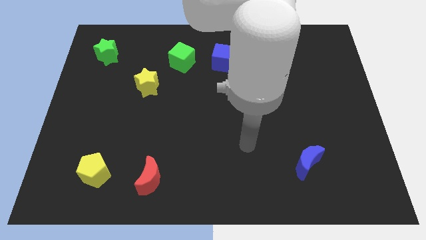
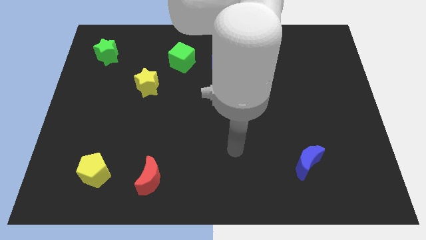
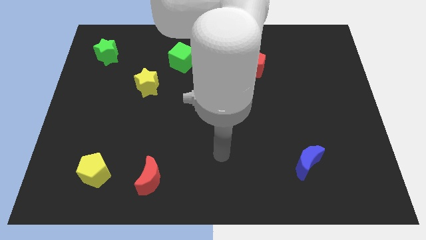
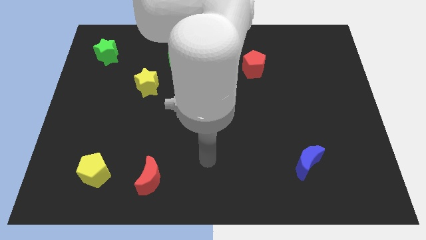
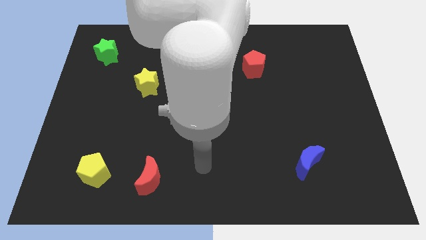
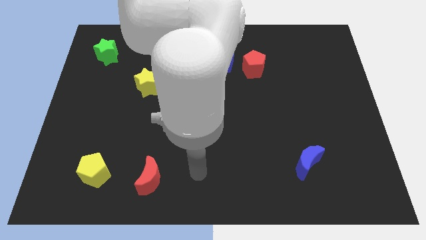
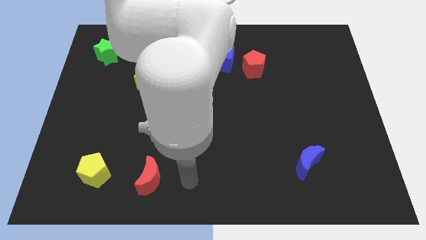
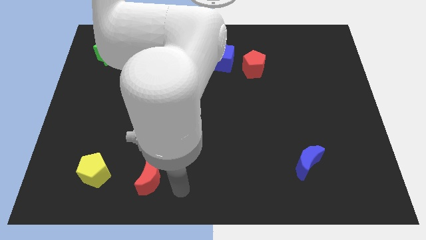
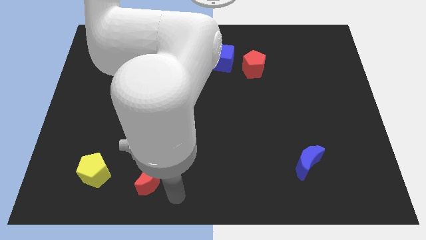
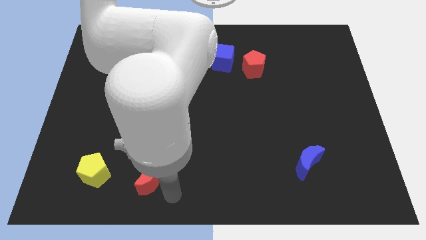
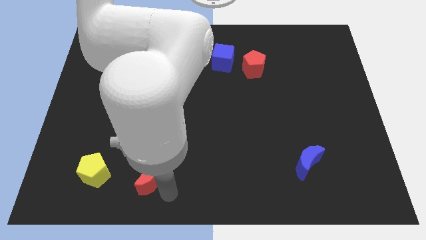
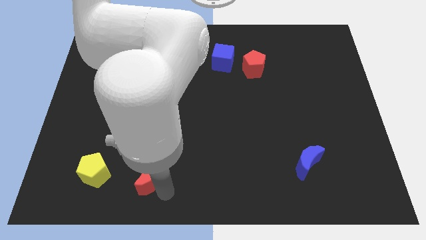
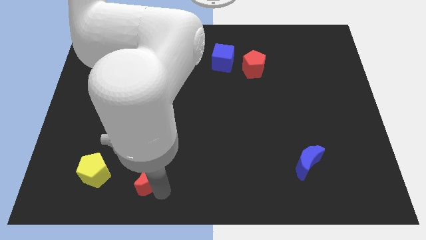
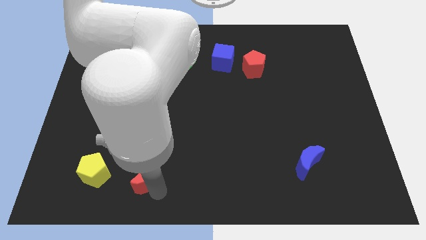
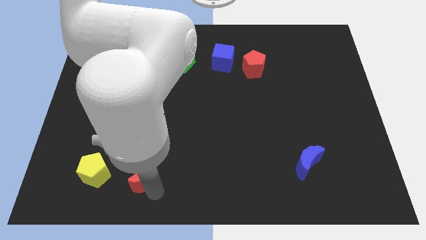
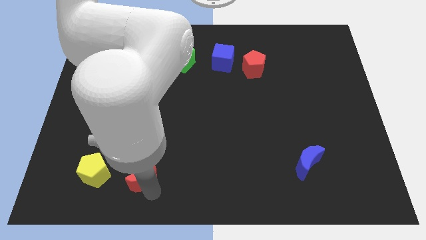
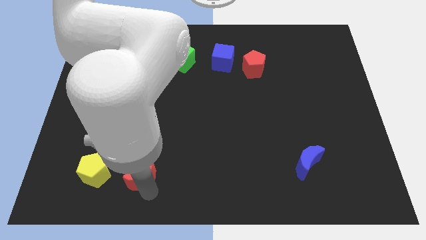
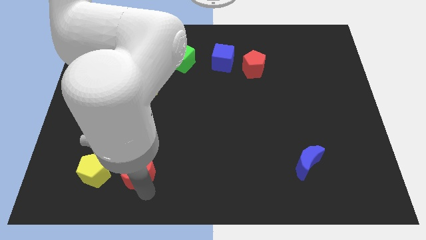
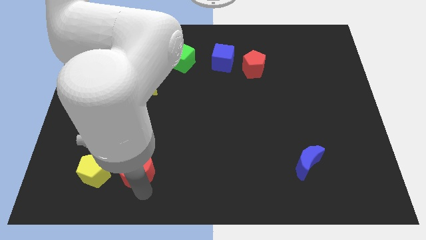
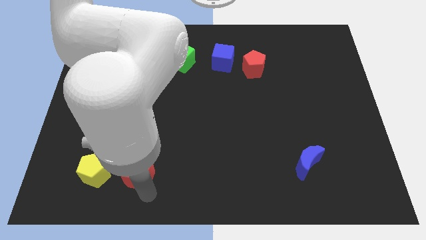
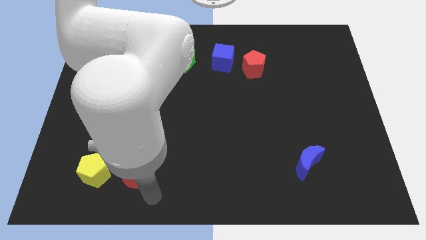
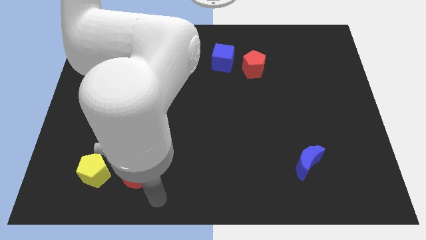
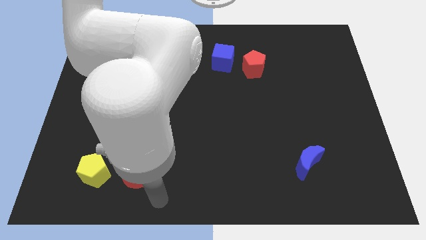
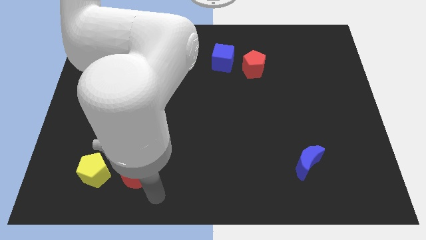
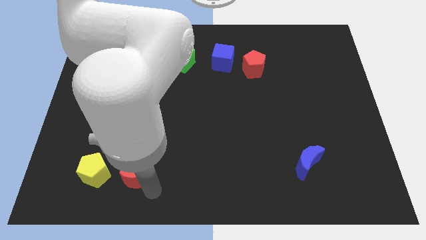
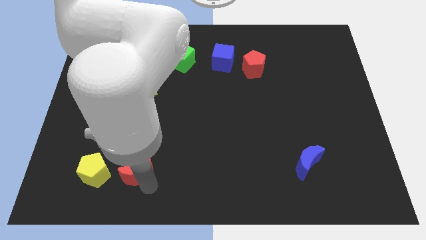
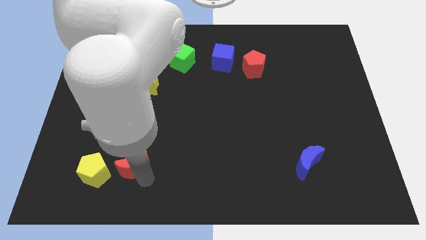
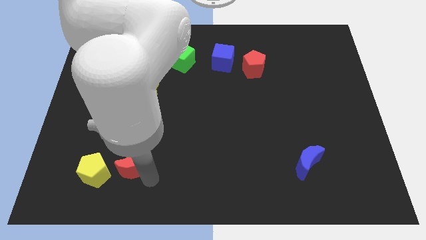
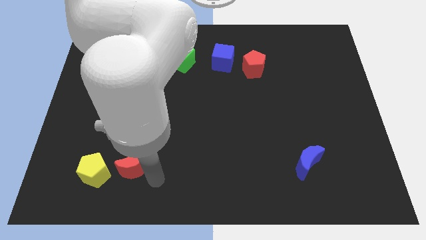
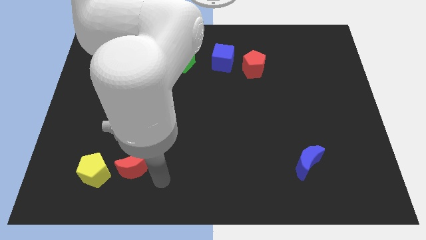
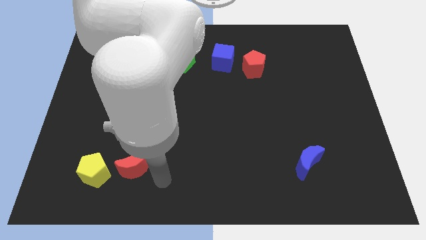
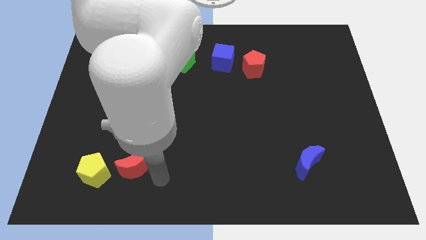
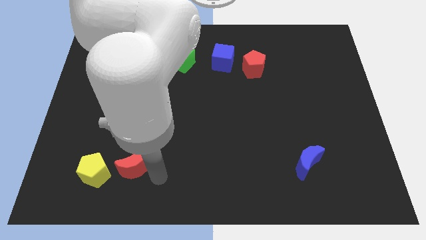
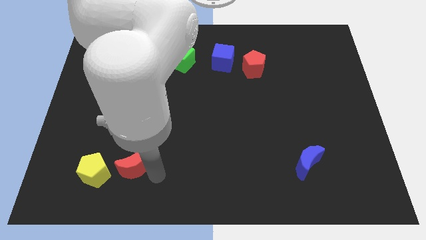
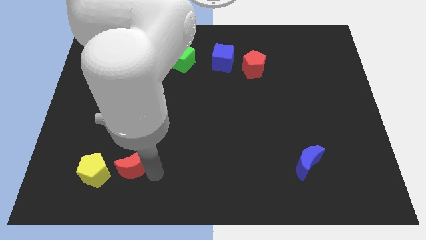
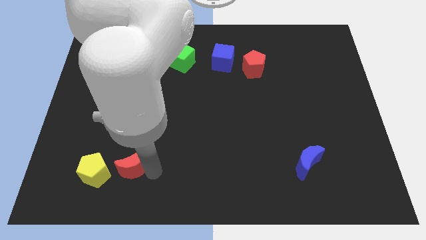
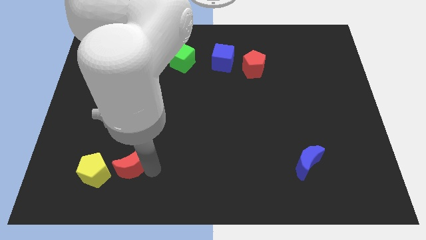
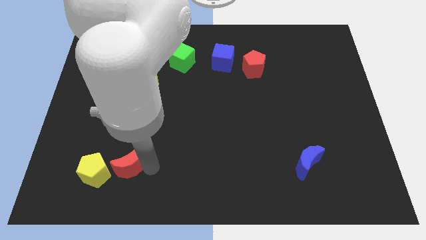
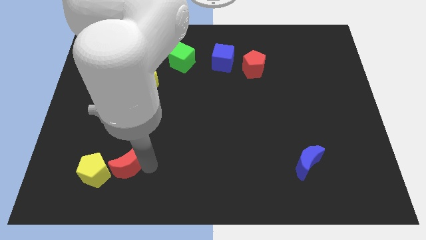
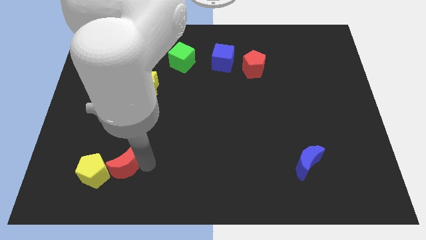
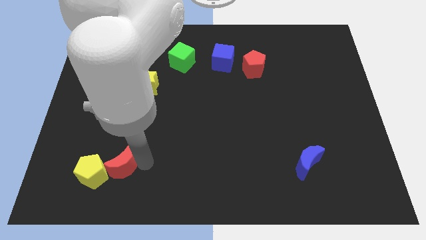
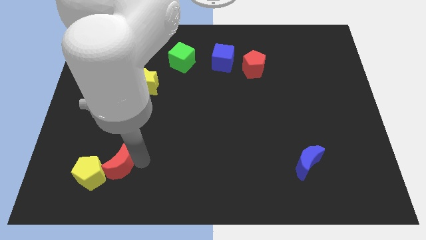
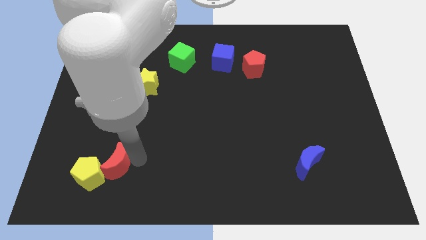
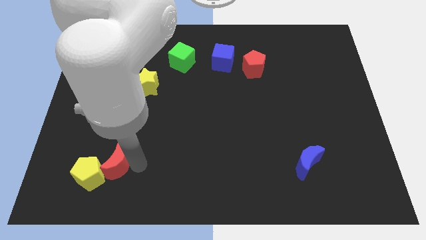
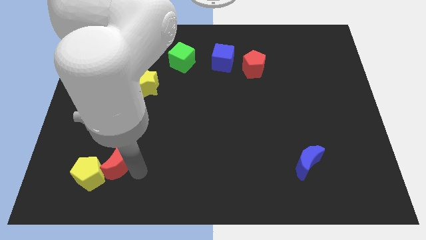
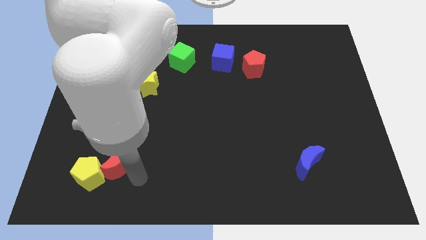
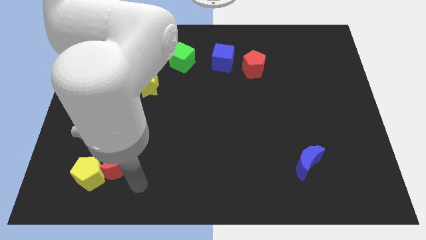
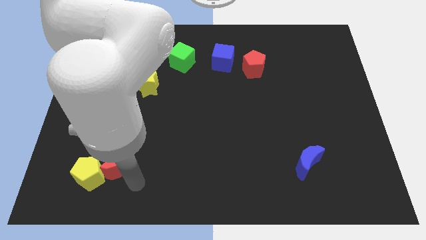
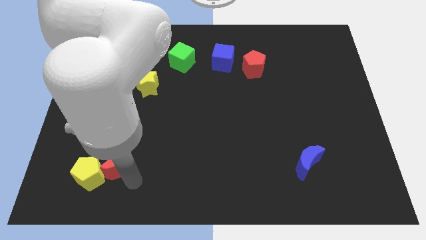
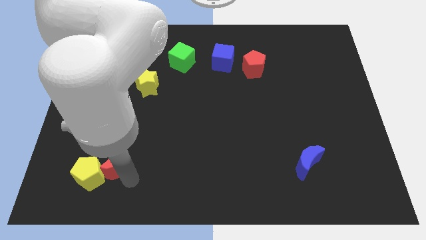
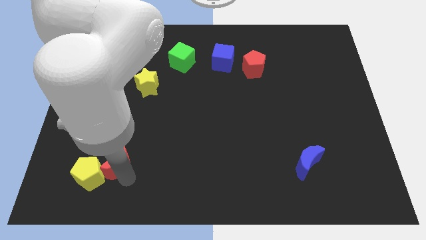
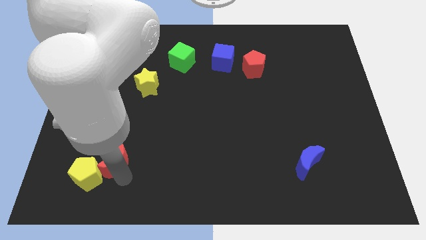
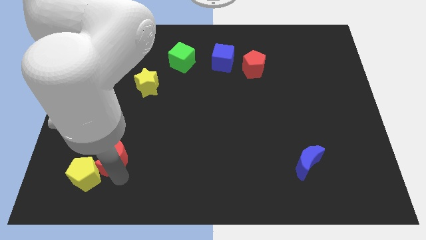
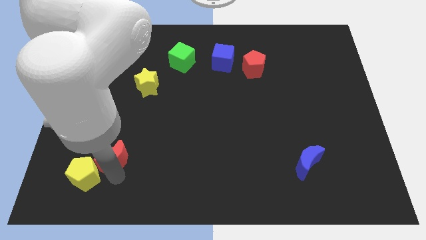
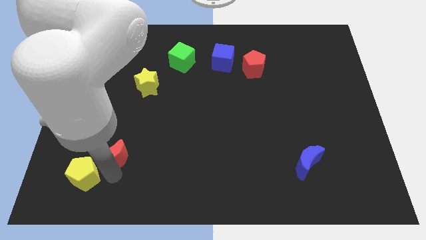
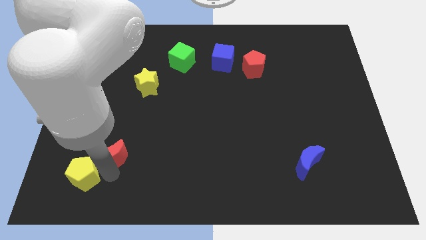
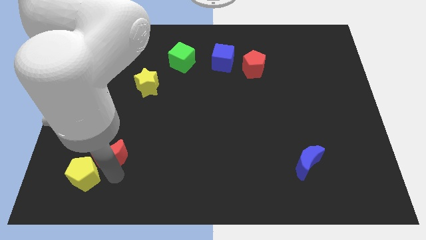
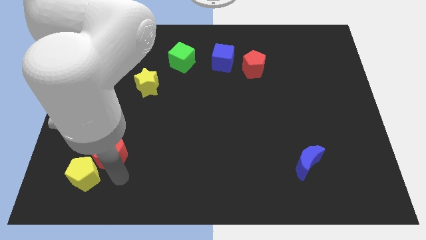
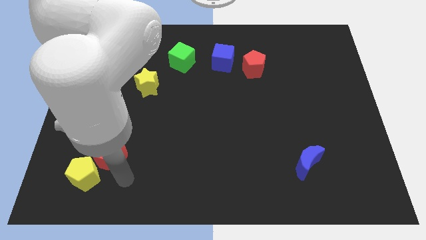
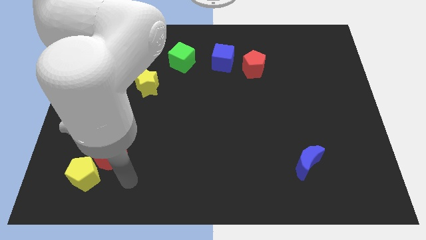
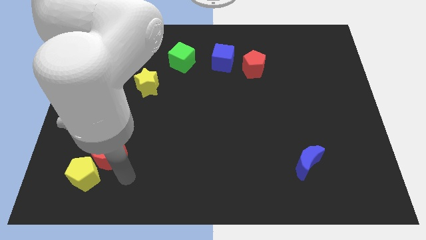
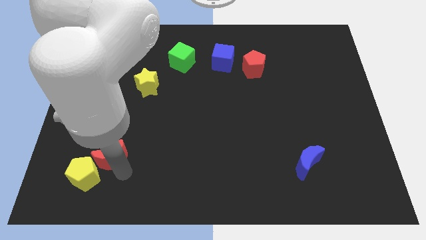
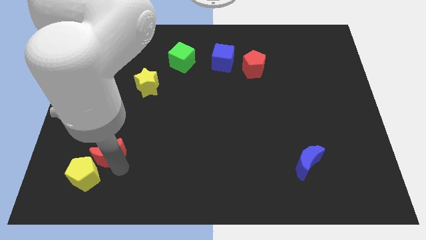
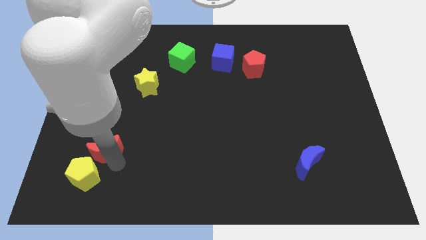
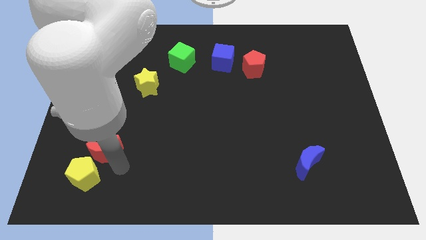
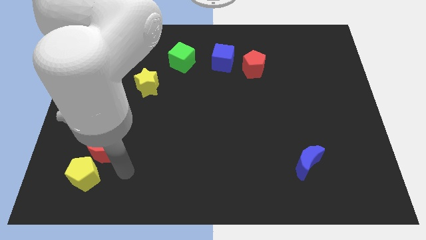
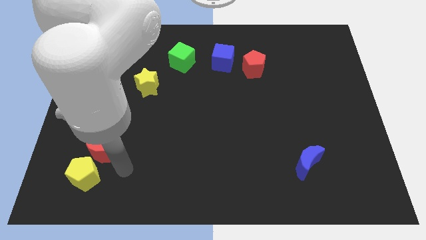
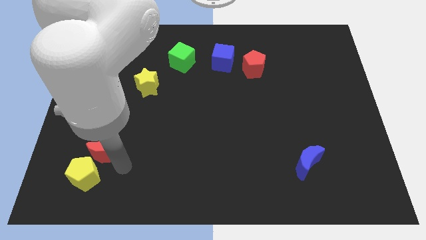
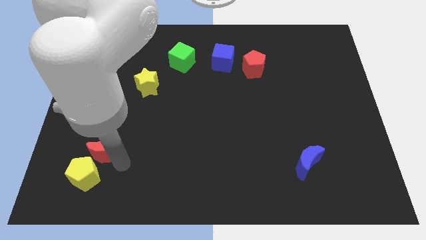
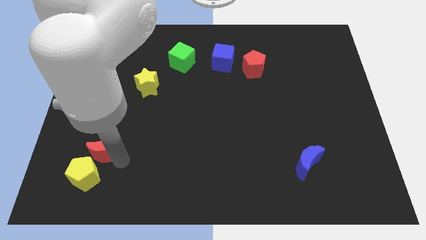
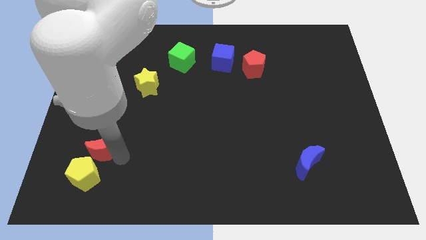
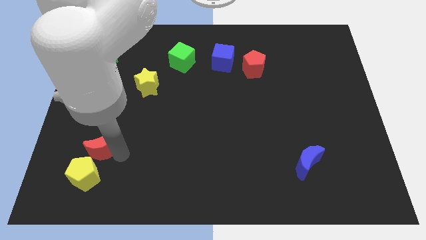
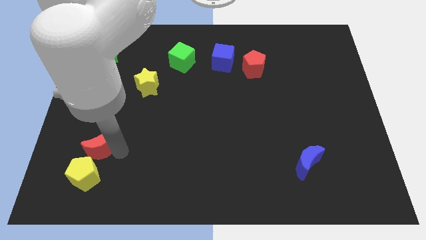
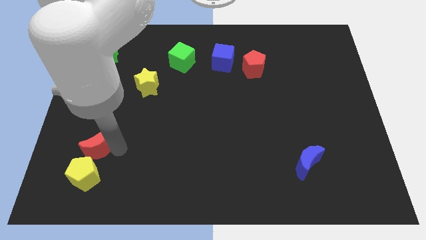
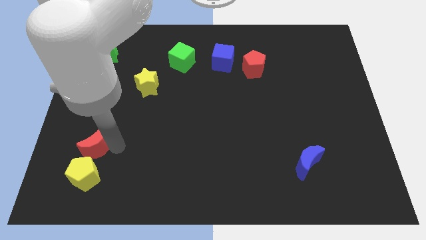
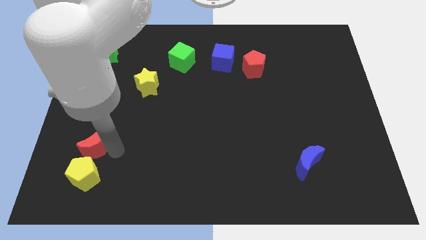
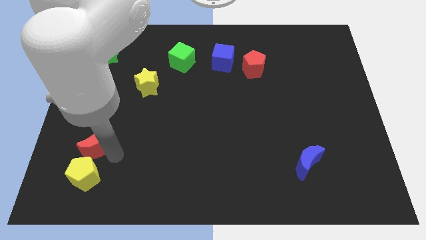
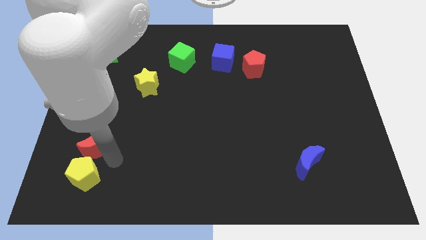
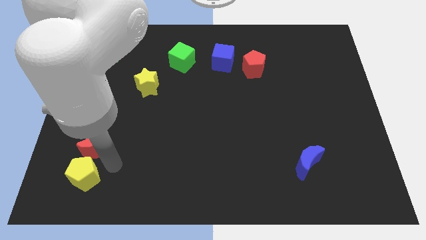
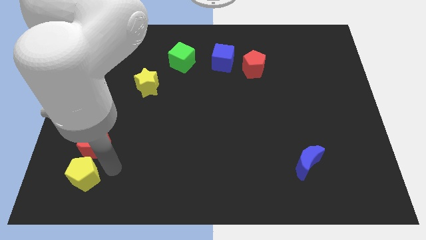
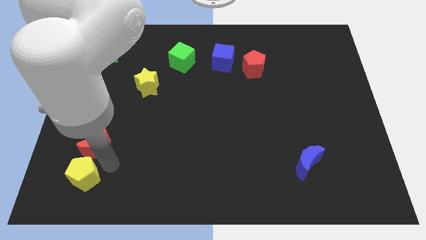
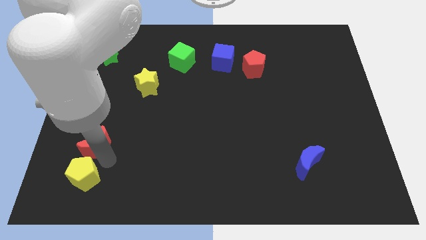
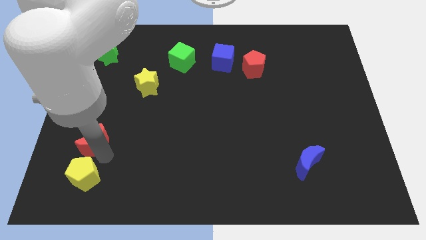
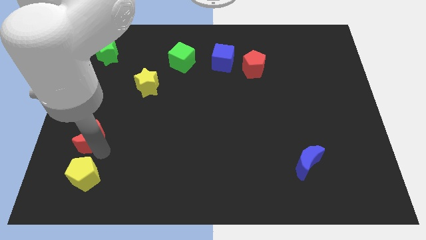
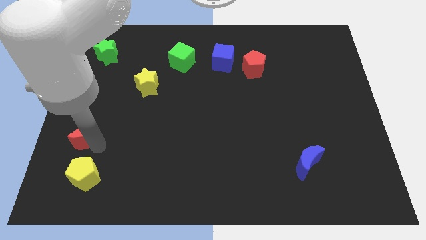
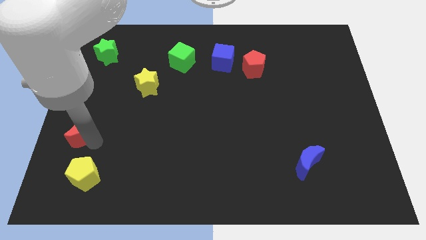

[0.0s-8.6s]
push the red moon to the left side of the board
